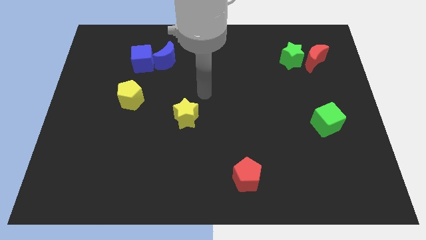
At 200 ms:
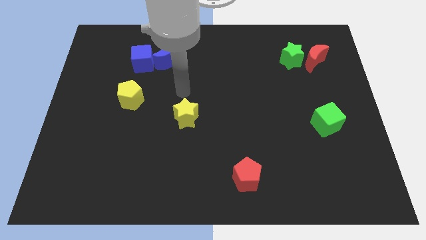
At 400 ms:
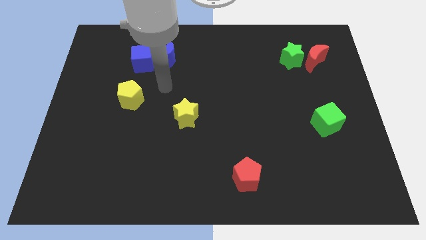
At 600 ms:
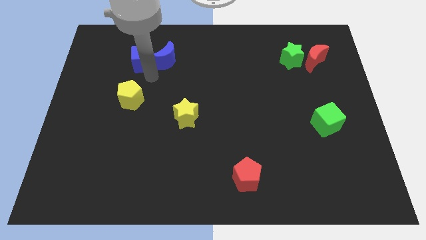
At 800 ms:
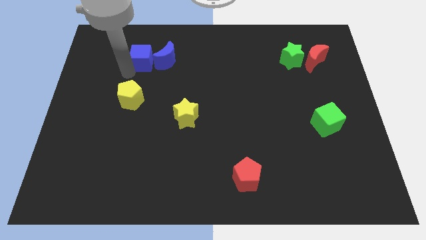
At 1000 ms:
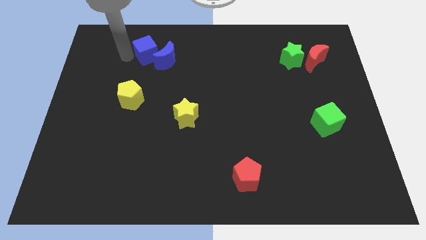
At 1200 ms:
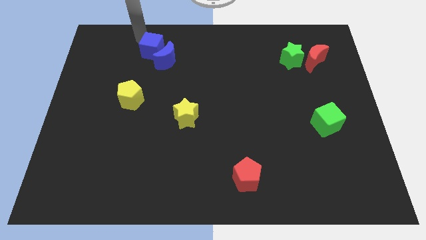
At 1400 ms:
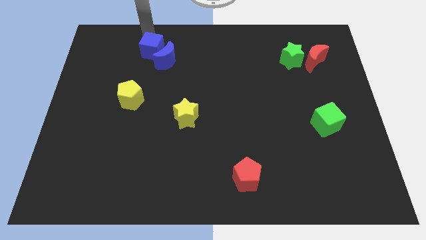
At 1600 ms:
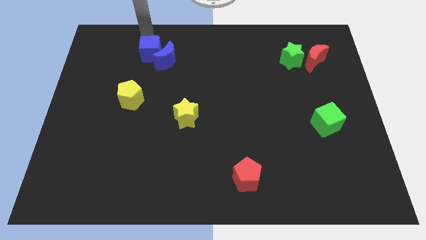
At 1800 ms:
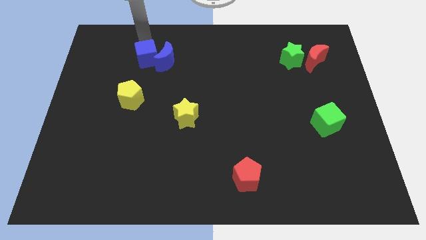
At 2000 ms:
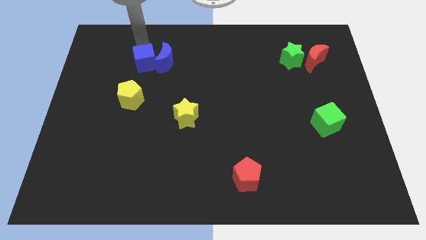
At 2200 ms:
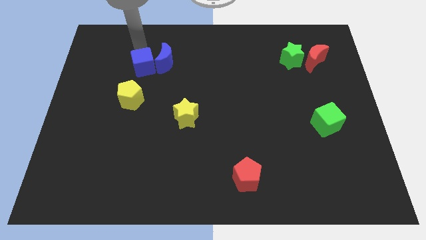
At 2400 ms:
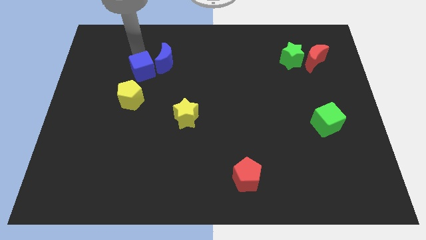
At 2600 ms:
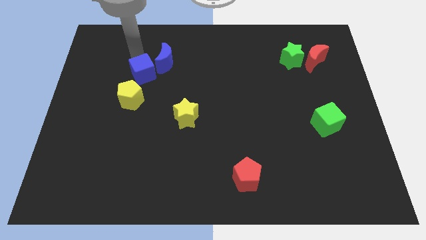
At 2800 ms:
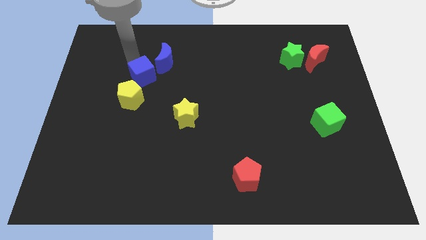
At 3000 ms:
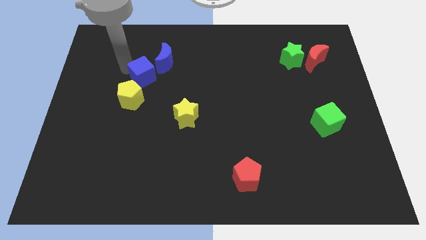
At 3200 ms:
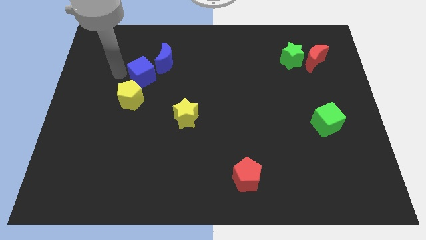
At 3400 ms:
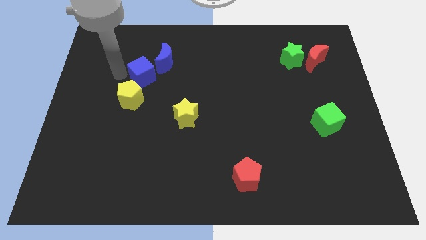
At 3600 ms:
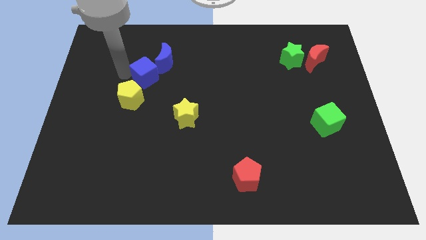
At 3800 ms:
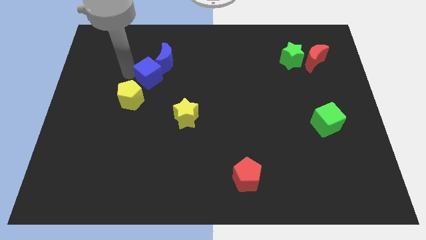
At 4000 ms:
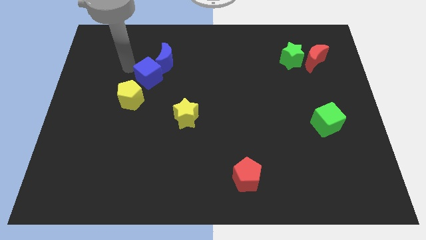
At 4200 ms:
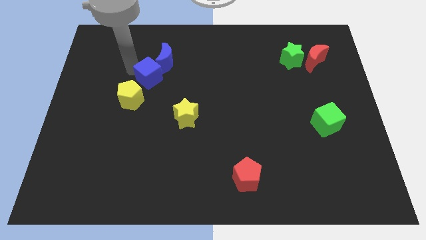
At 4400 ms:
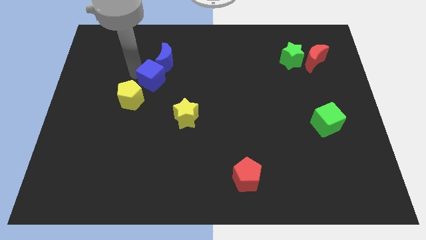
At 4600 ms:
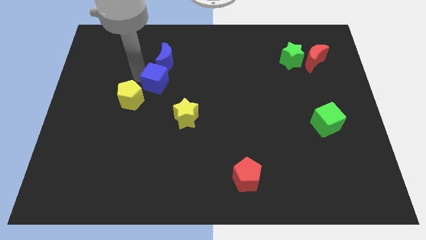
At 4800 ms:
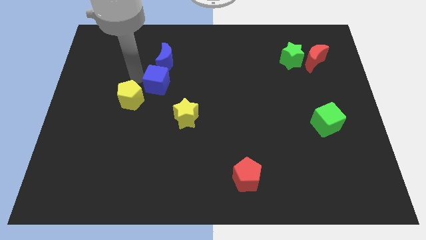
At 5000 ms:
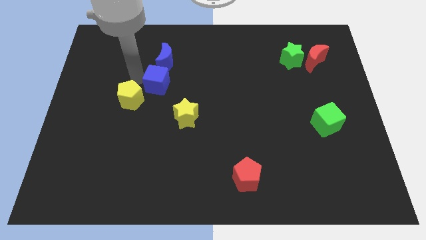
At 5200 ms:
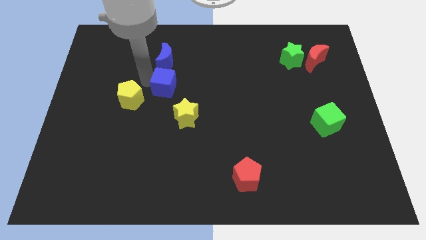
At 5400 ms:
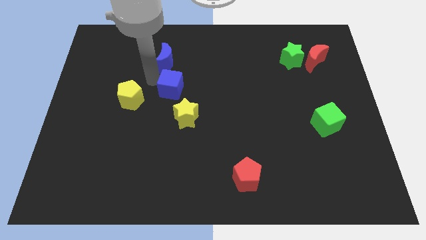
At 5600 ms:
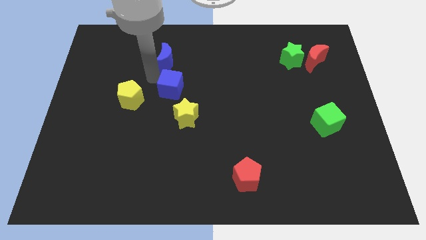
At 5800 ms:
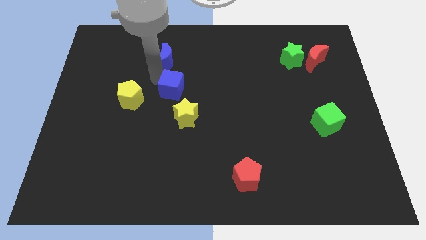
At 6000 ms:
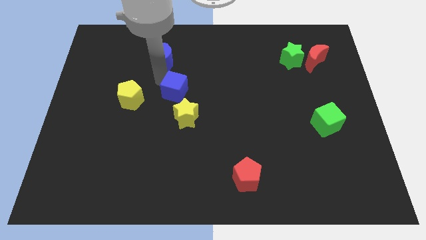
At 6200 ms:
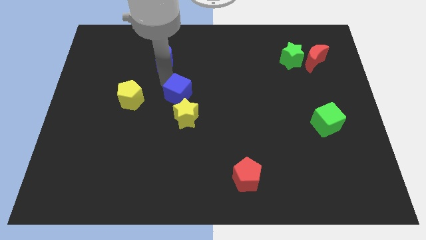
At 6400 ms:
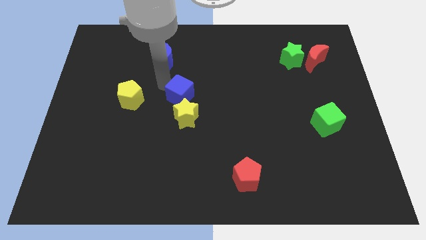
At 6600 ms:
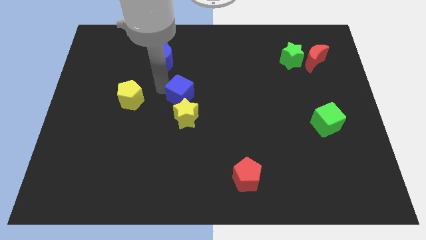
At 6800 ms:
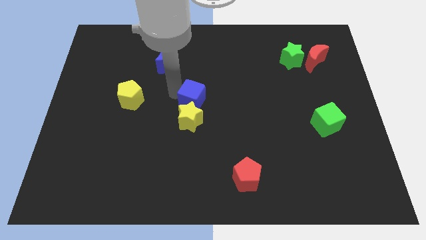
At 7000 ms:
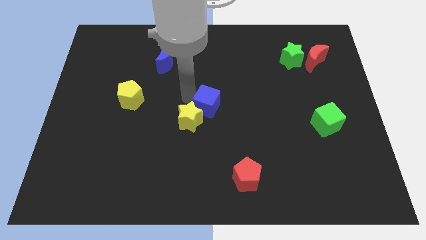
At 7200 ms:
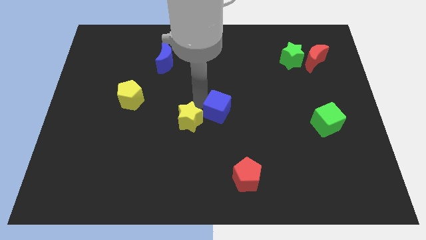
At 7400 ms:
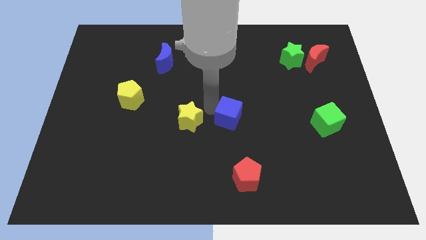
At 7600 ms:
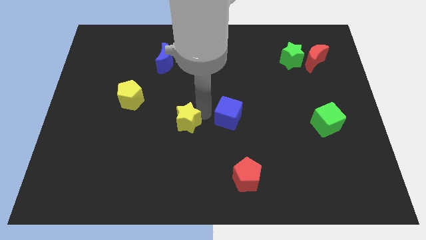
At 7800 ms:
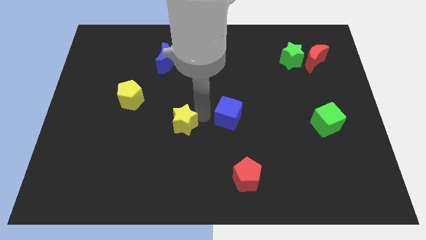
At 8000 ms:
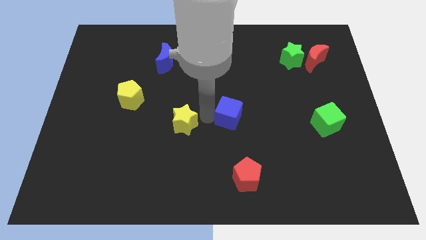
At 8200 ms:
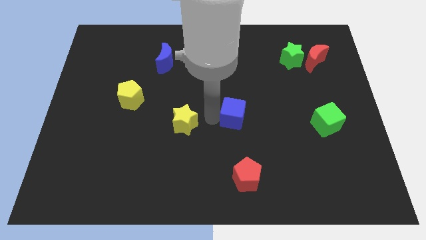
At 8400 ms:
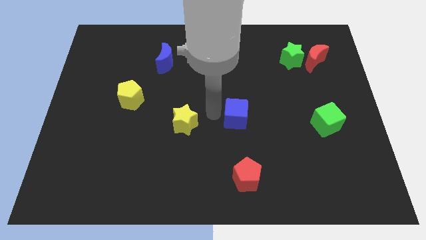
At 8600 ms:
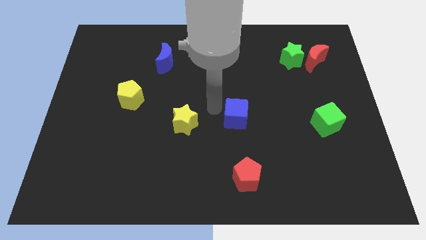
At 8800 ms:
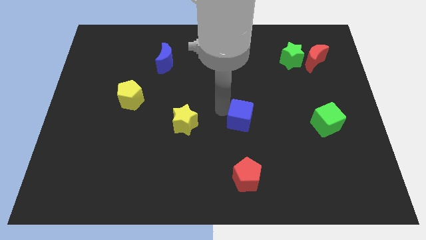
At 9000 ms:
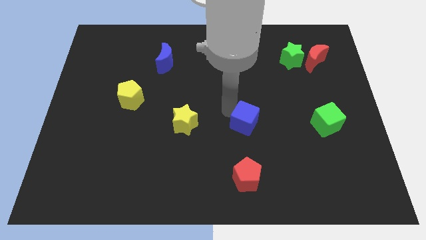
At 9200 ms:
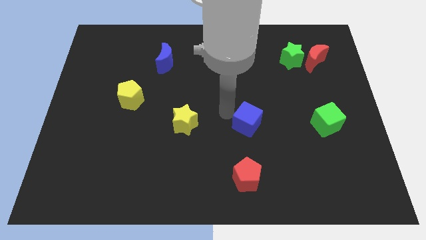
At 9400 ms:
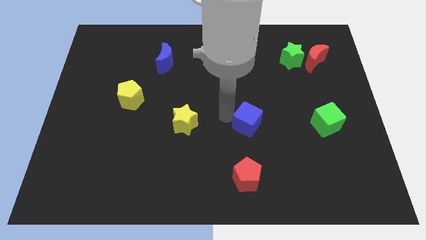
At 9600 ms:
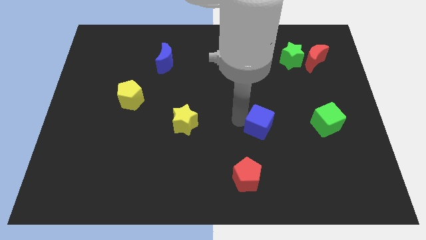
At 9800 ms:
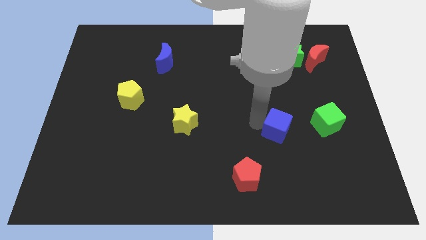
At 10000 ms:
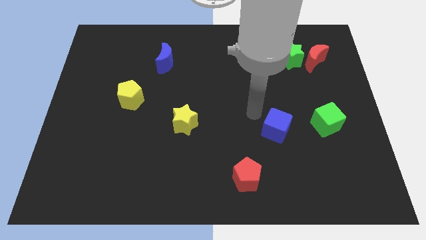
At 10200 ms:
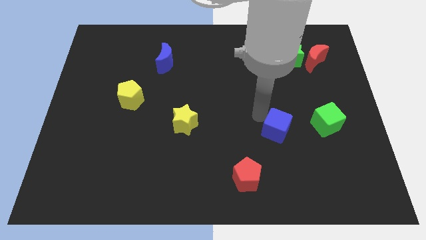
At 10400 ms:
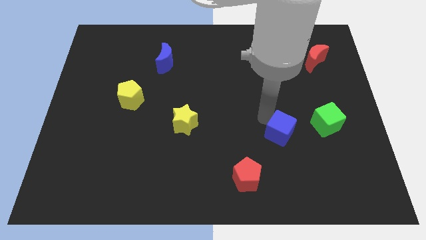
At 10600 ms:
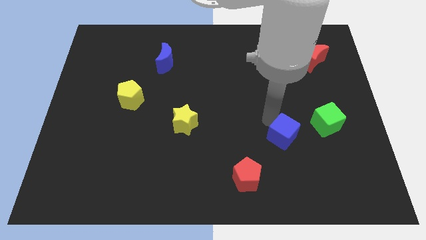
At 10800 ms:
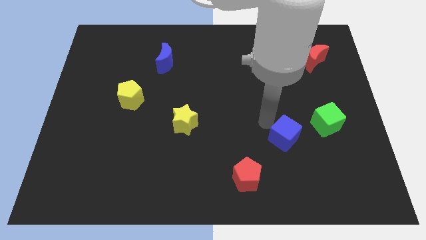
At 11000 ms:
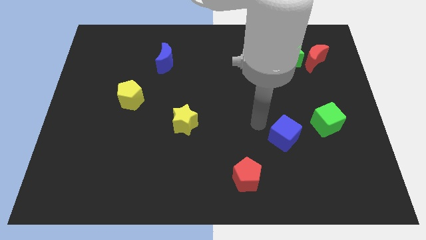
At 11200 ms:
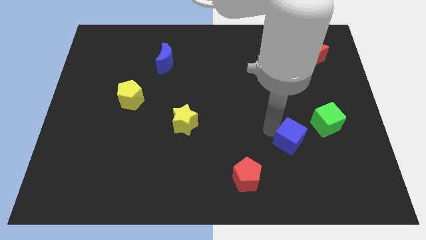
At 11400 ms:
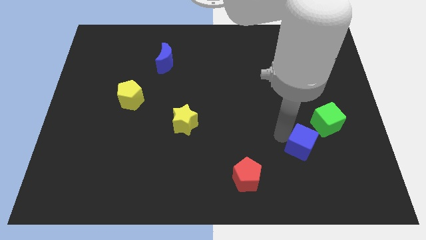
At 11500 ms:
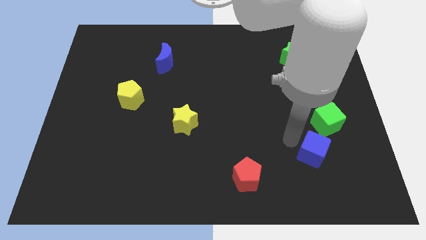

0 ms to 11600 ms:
move the blue cube to the bottom side of the green cube
